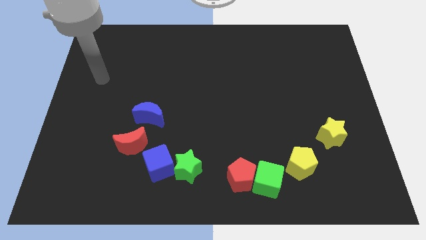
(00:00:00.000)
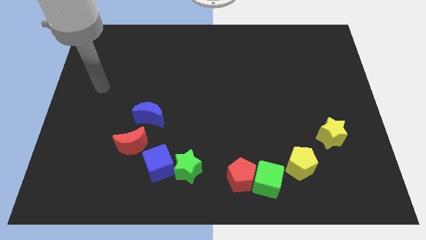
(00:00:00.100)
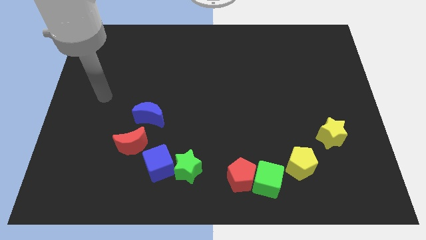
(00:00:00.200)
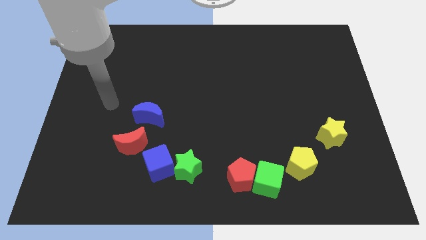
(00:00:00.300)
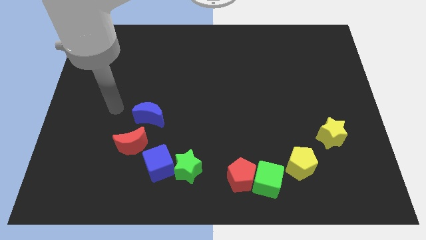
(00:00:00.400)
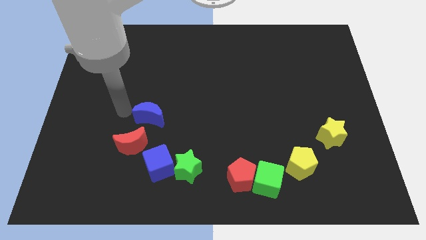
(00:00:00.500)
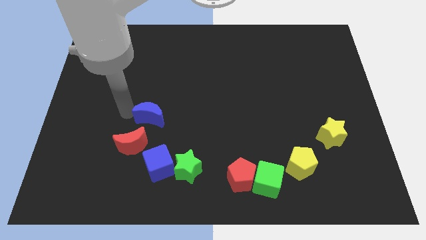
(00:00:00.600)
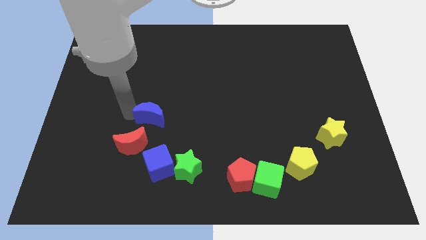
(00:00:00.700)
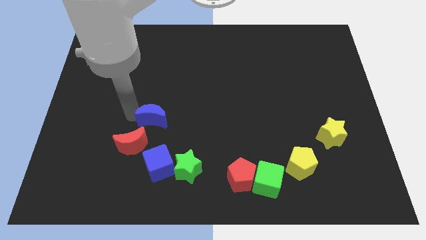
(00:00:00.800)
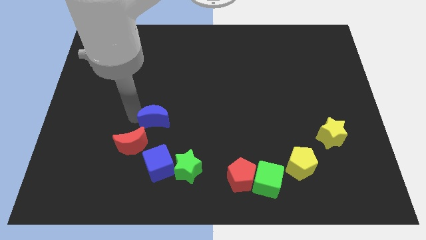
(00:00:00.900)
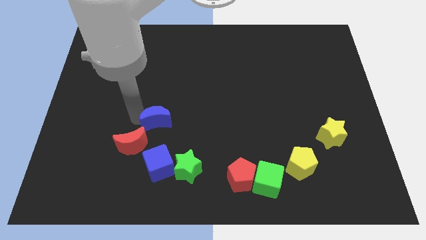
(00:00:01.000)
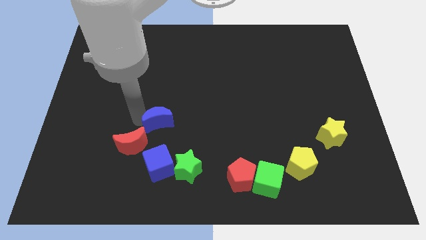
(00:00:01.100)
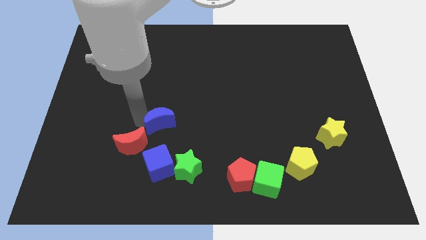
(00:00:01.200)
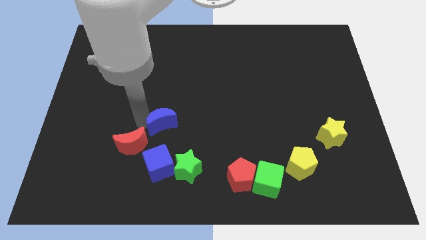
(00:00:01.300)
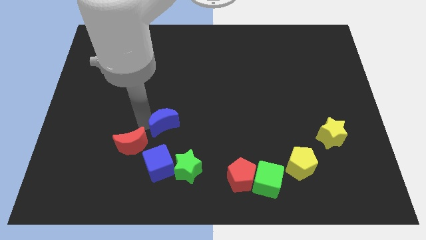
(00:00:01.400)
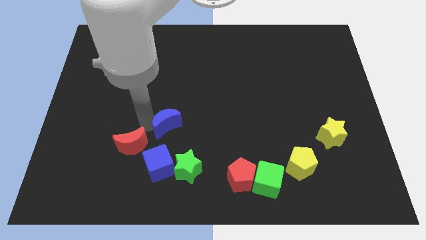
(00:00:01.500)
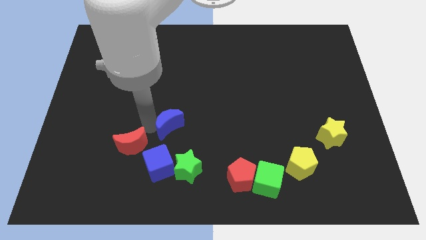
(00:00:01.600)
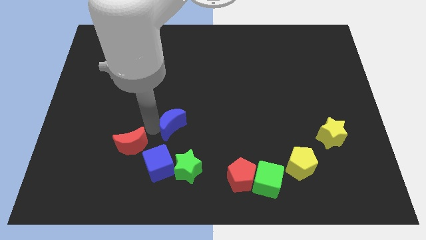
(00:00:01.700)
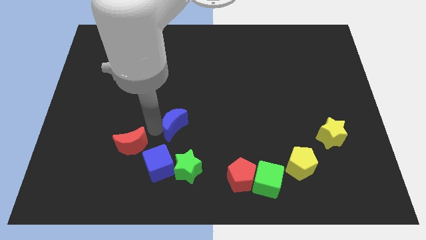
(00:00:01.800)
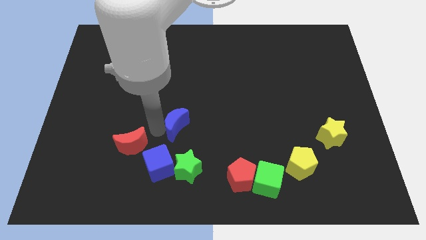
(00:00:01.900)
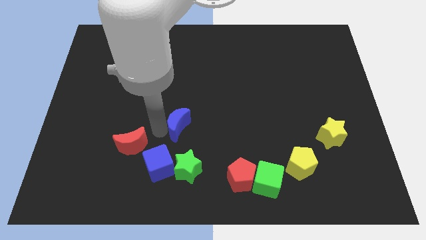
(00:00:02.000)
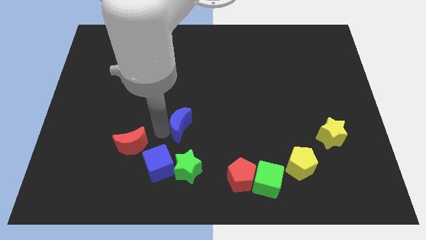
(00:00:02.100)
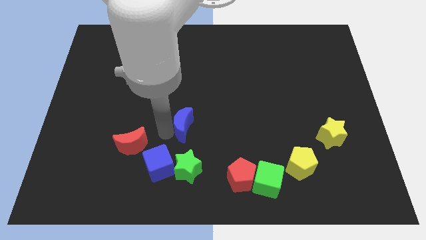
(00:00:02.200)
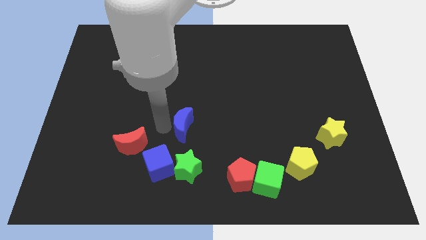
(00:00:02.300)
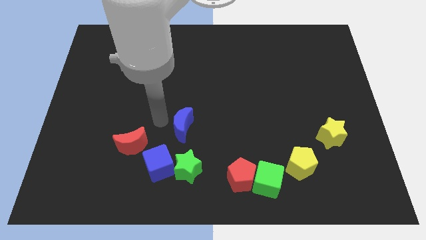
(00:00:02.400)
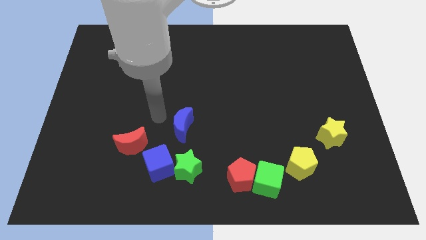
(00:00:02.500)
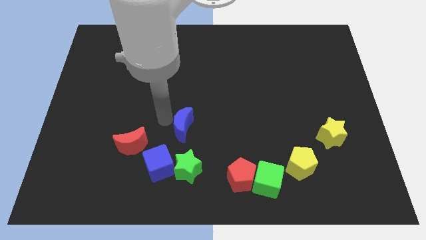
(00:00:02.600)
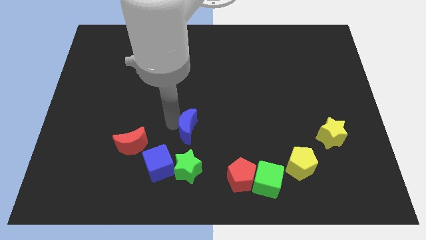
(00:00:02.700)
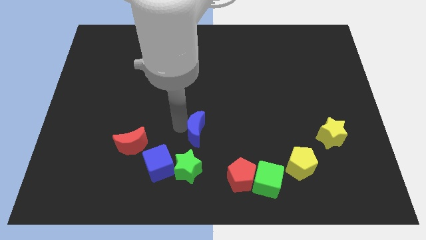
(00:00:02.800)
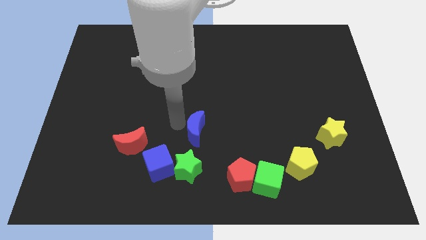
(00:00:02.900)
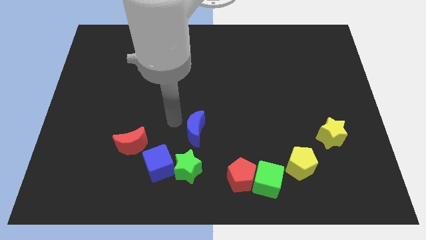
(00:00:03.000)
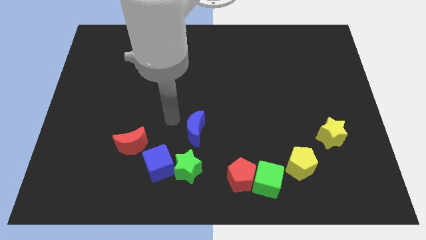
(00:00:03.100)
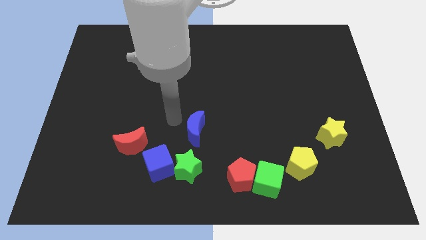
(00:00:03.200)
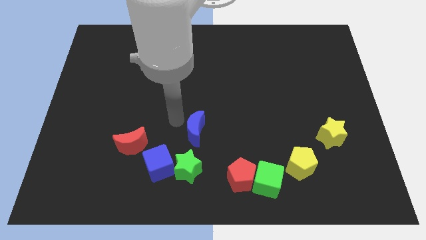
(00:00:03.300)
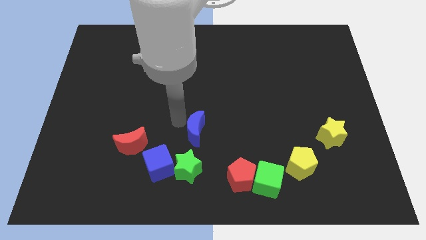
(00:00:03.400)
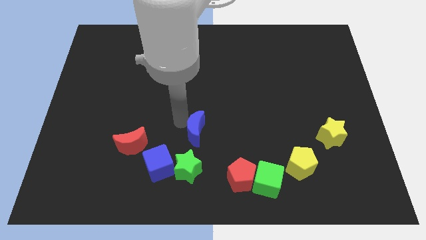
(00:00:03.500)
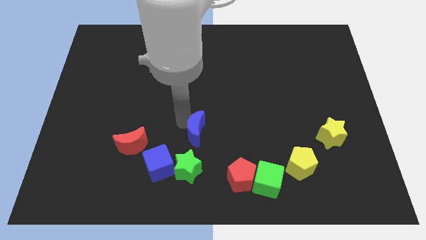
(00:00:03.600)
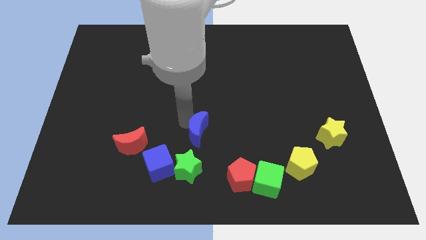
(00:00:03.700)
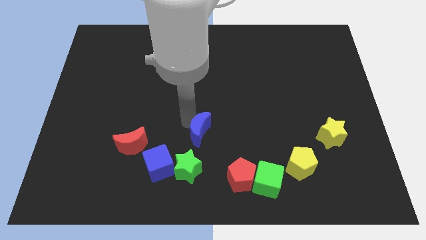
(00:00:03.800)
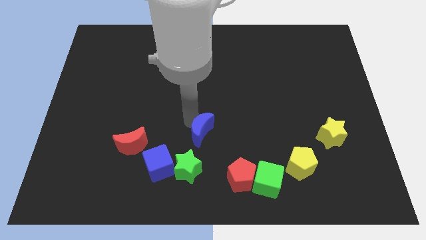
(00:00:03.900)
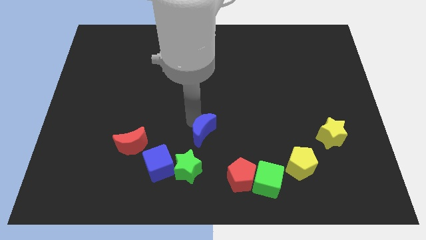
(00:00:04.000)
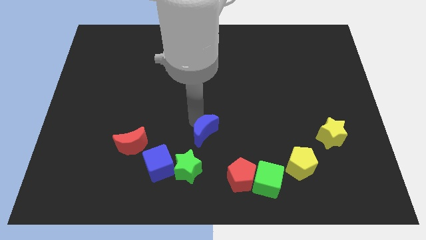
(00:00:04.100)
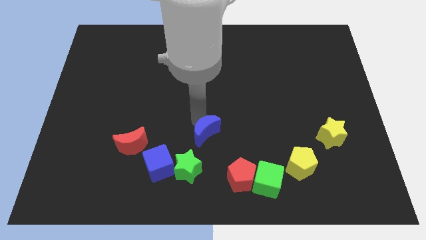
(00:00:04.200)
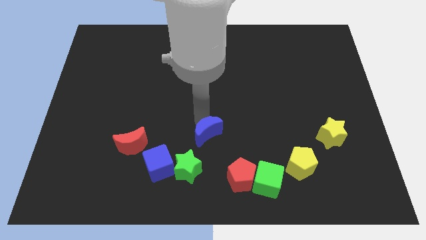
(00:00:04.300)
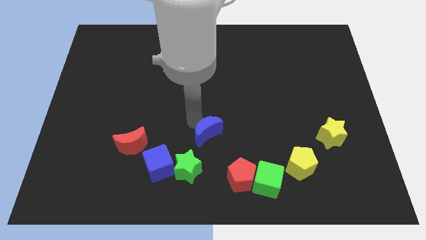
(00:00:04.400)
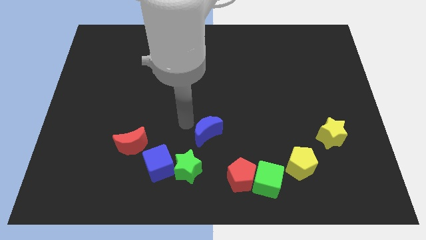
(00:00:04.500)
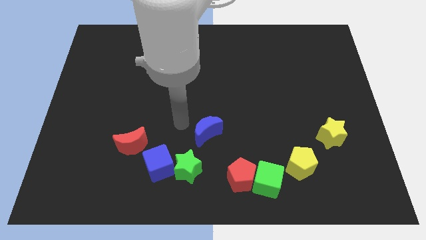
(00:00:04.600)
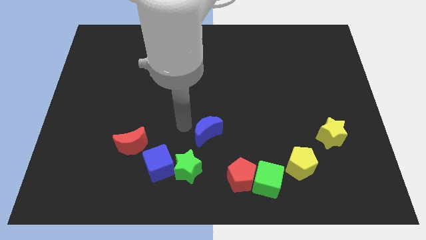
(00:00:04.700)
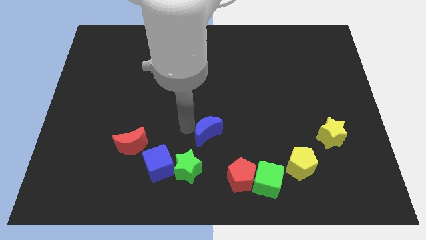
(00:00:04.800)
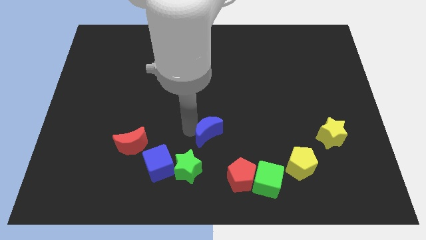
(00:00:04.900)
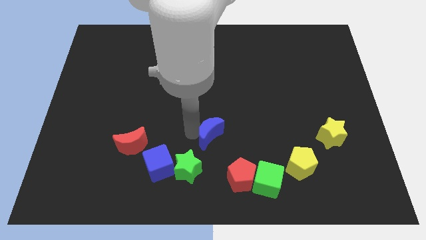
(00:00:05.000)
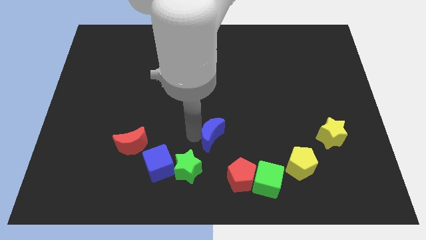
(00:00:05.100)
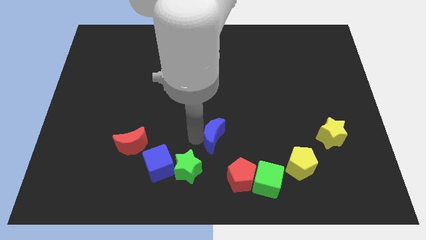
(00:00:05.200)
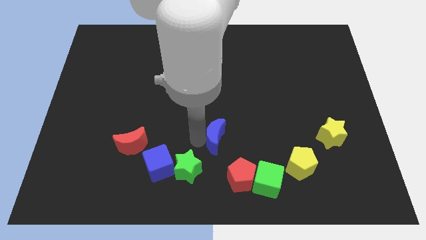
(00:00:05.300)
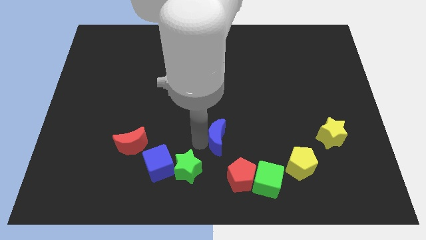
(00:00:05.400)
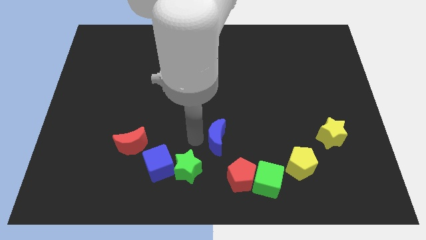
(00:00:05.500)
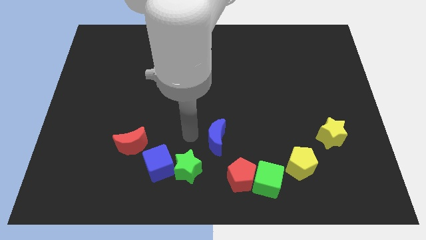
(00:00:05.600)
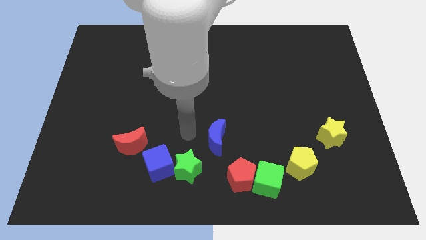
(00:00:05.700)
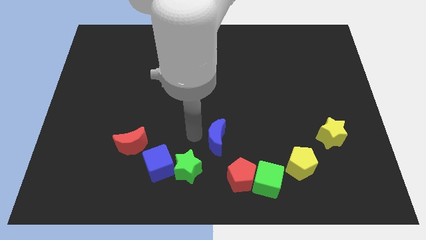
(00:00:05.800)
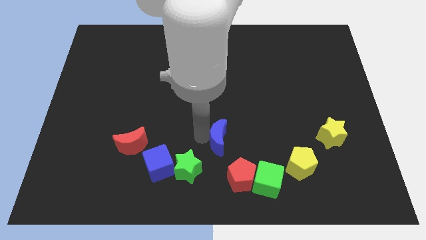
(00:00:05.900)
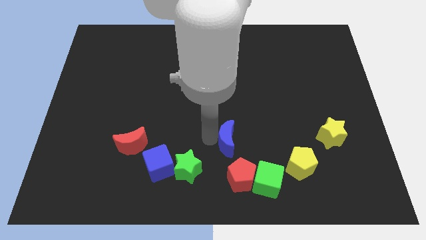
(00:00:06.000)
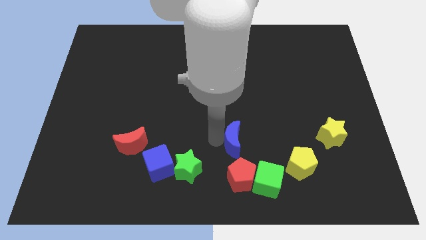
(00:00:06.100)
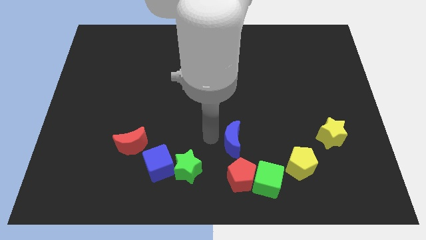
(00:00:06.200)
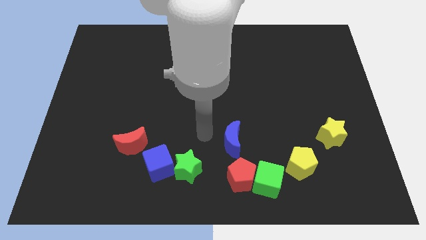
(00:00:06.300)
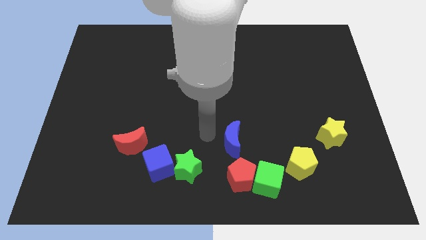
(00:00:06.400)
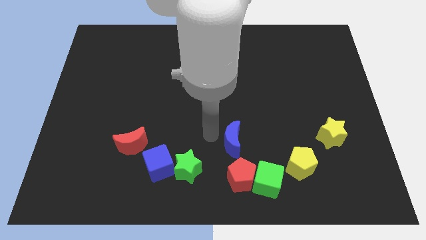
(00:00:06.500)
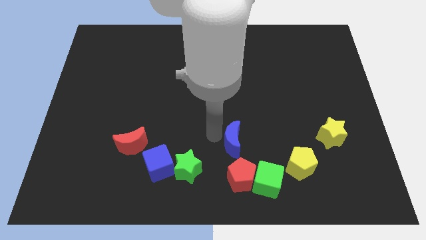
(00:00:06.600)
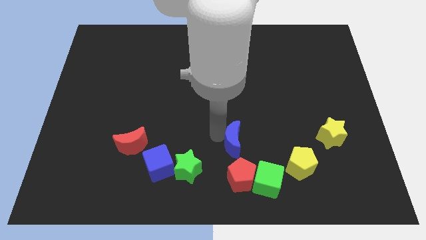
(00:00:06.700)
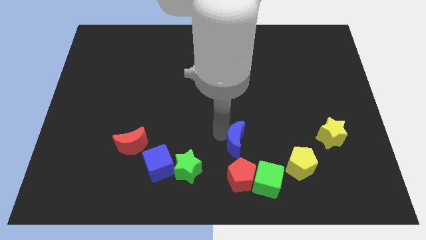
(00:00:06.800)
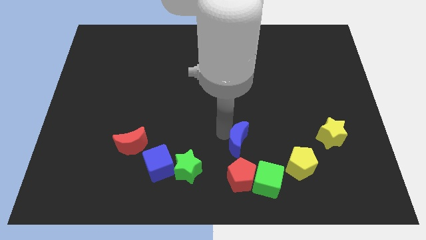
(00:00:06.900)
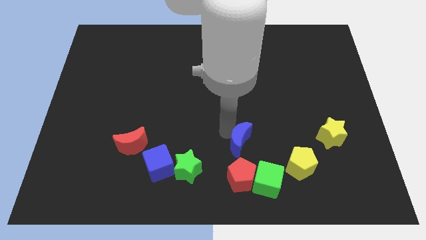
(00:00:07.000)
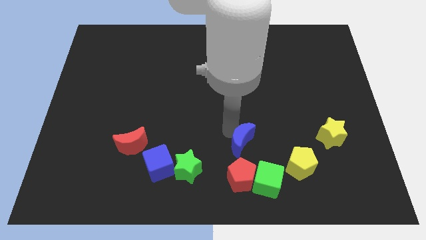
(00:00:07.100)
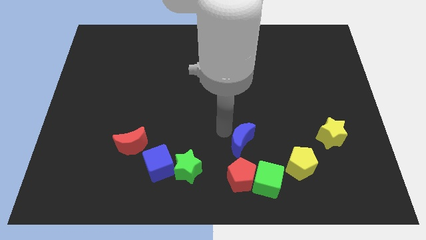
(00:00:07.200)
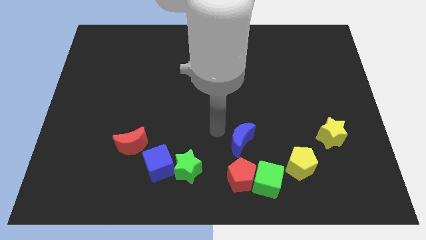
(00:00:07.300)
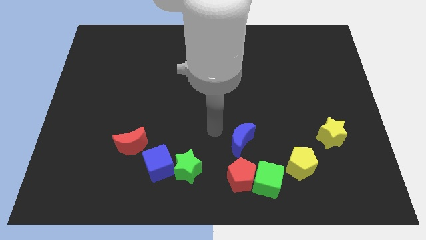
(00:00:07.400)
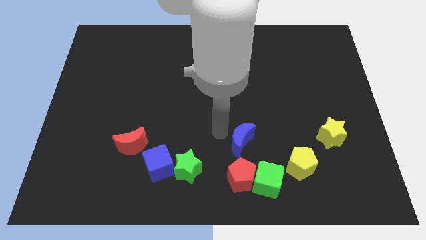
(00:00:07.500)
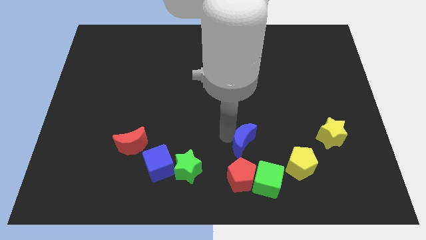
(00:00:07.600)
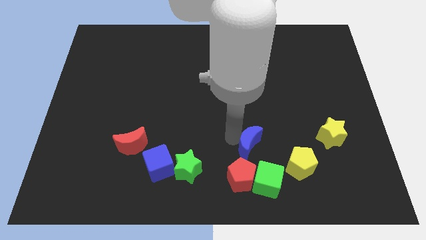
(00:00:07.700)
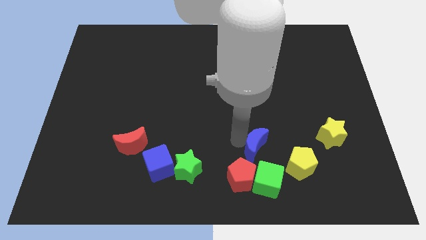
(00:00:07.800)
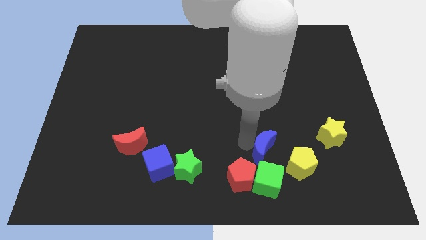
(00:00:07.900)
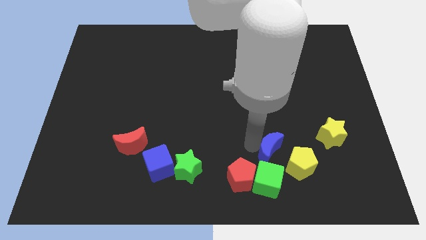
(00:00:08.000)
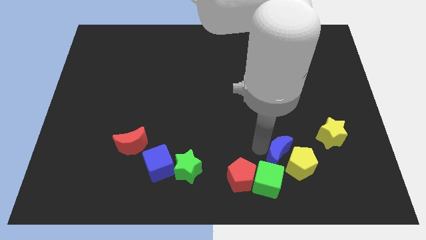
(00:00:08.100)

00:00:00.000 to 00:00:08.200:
put the blue moon next to the yellow pentagon
